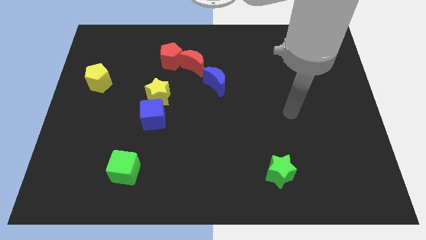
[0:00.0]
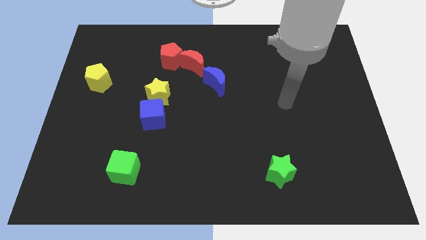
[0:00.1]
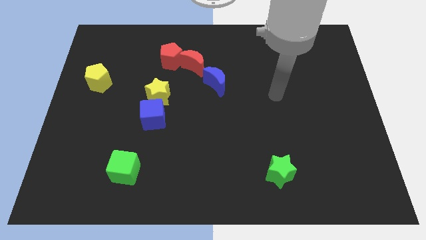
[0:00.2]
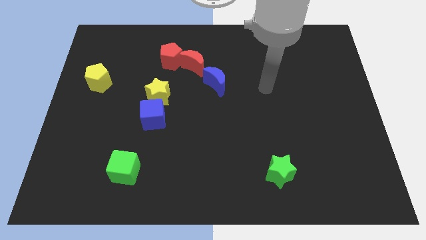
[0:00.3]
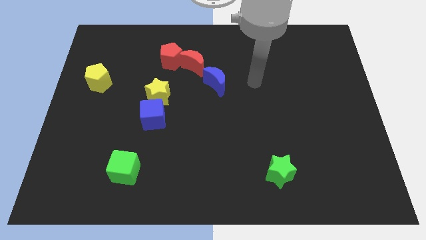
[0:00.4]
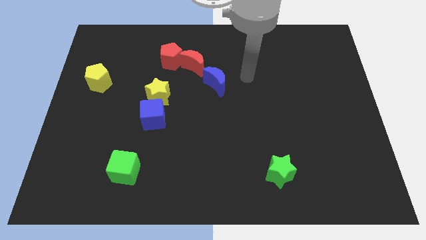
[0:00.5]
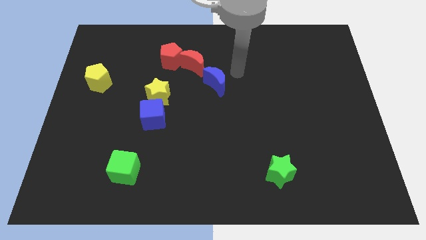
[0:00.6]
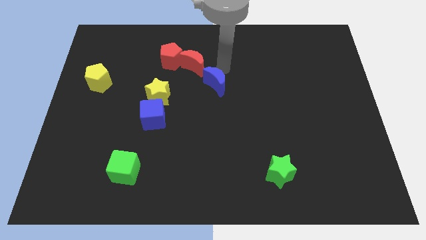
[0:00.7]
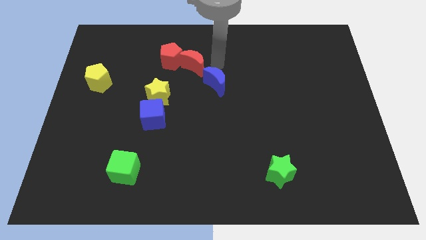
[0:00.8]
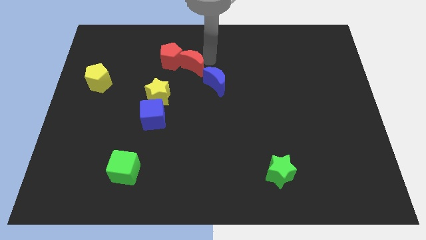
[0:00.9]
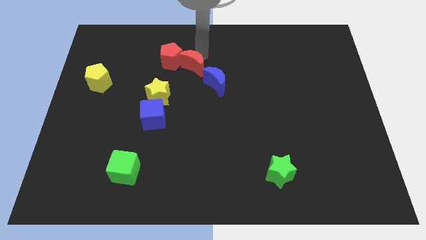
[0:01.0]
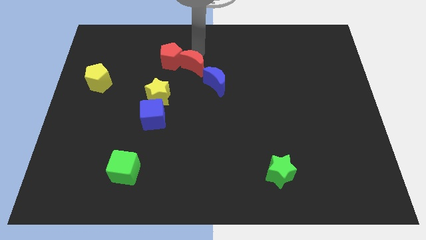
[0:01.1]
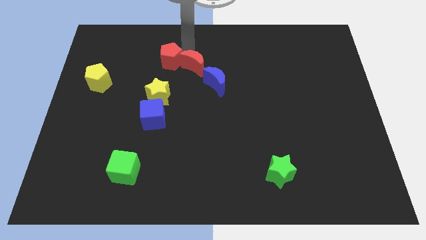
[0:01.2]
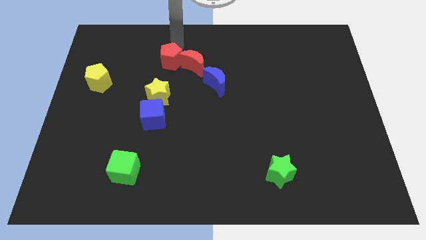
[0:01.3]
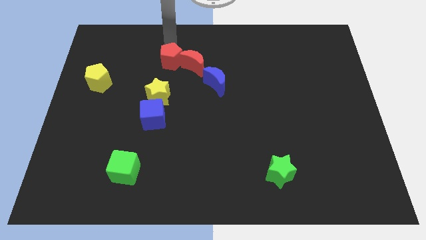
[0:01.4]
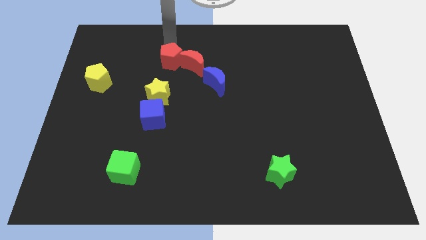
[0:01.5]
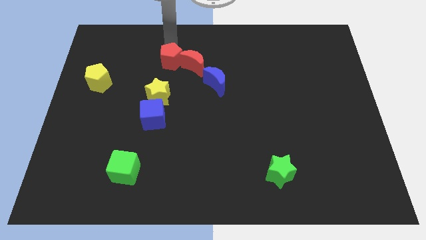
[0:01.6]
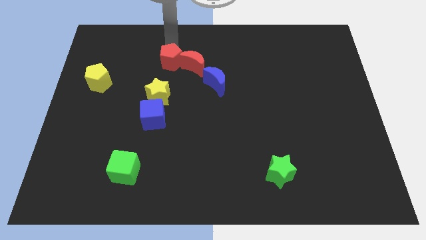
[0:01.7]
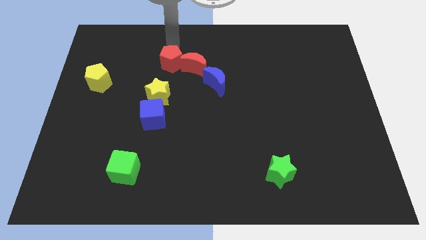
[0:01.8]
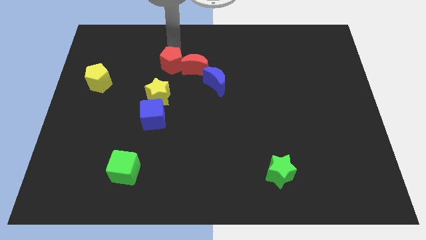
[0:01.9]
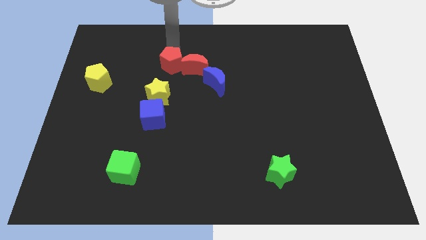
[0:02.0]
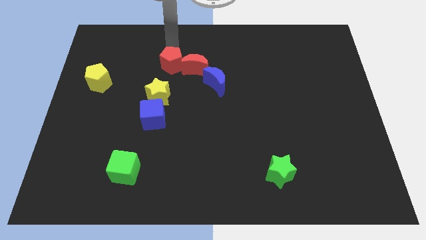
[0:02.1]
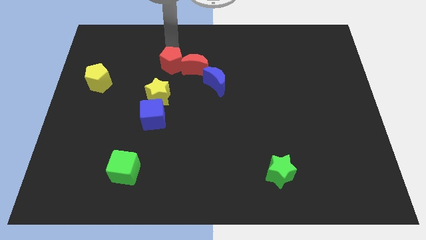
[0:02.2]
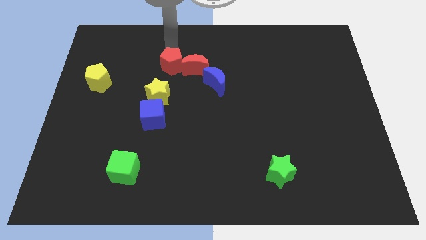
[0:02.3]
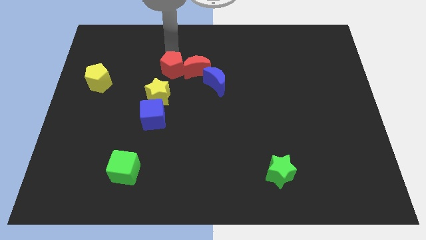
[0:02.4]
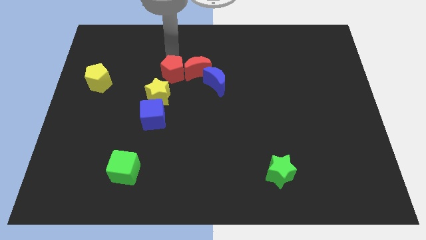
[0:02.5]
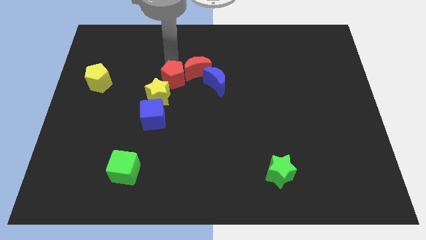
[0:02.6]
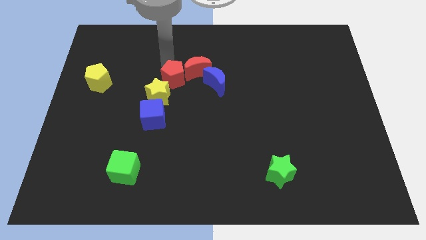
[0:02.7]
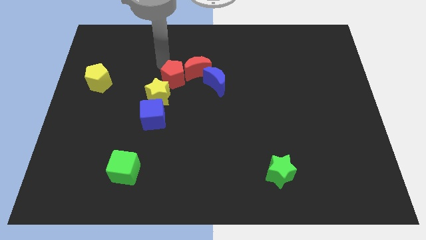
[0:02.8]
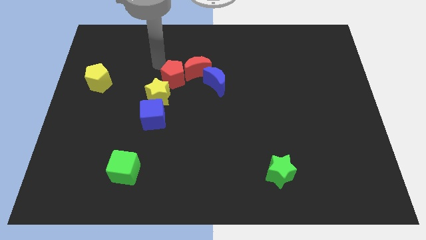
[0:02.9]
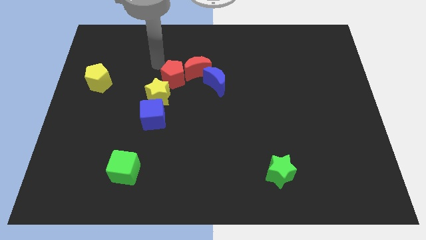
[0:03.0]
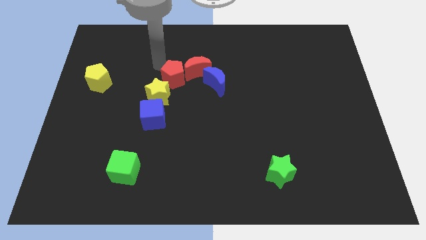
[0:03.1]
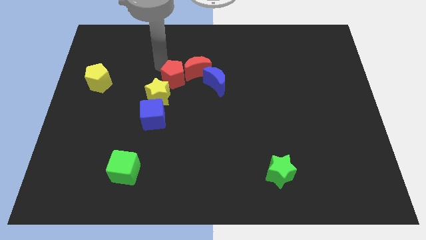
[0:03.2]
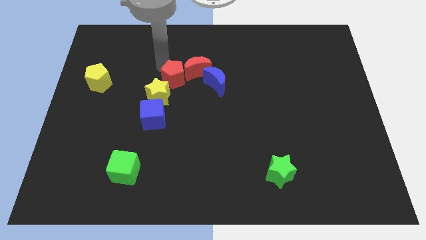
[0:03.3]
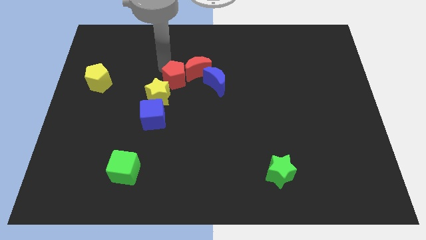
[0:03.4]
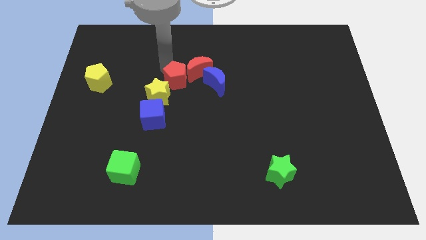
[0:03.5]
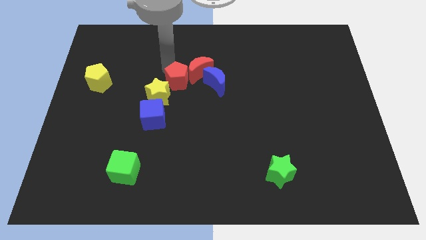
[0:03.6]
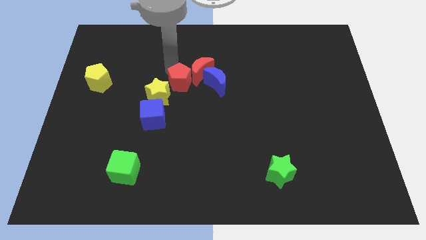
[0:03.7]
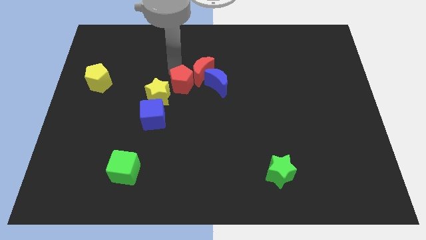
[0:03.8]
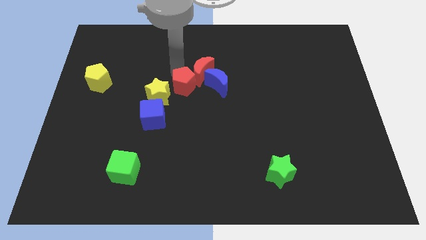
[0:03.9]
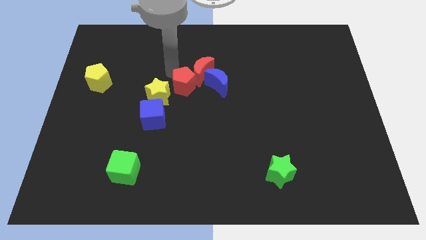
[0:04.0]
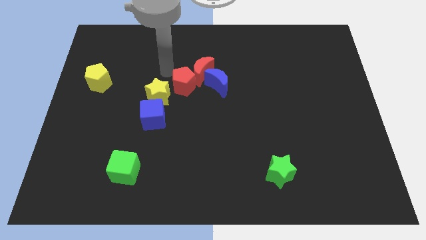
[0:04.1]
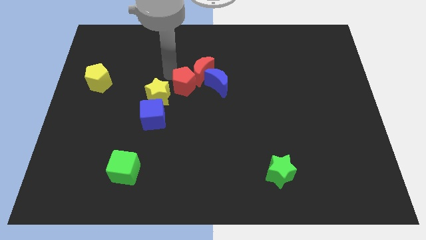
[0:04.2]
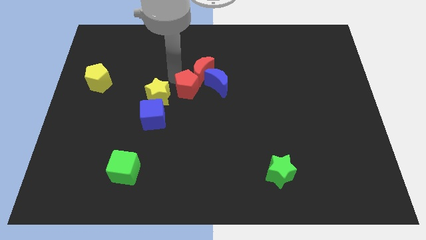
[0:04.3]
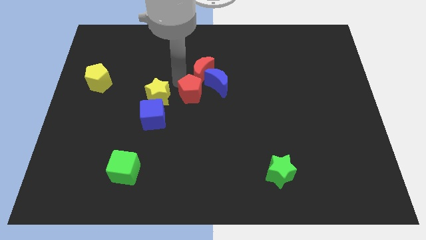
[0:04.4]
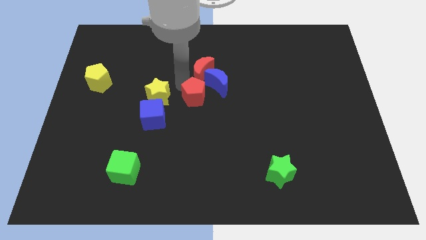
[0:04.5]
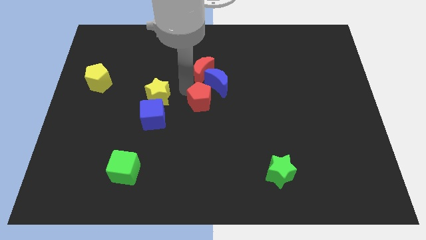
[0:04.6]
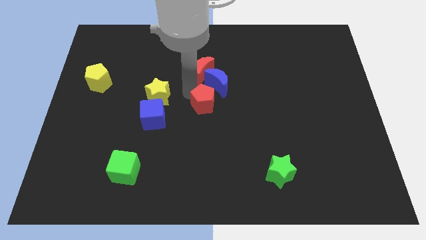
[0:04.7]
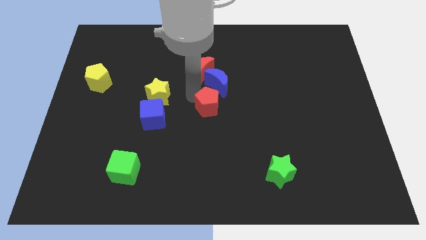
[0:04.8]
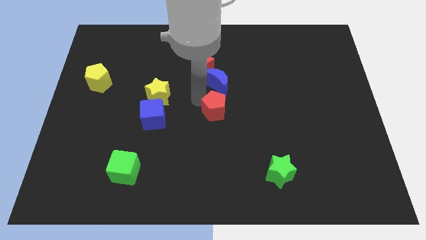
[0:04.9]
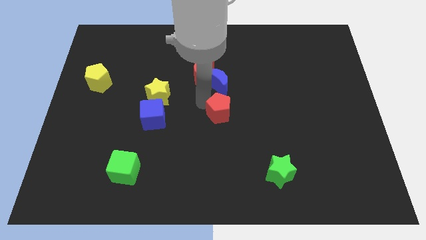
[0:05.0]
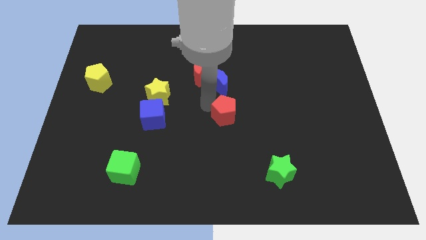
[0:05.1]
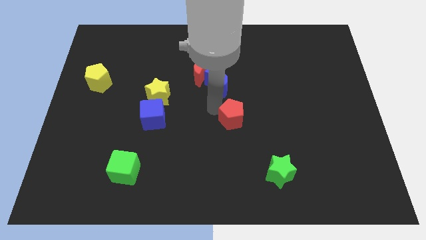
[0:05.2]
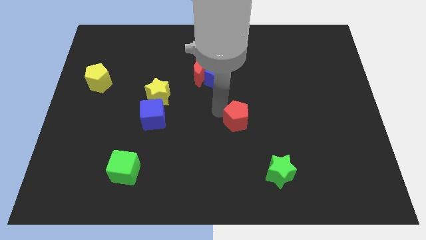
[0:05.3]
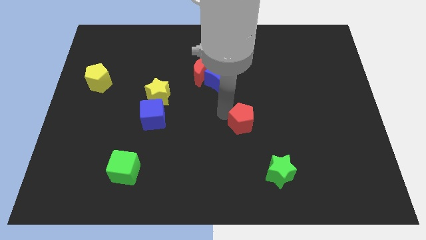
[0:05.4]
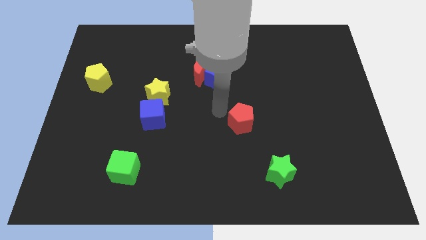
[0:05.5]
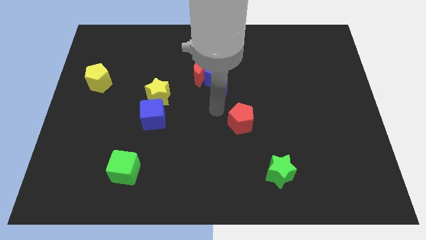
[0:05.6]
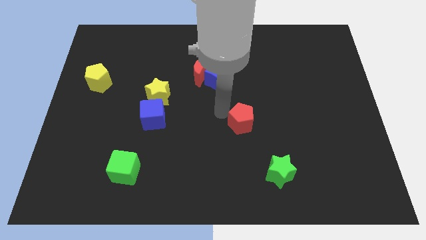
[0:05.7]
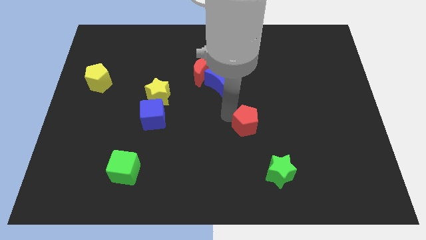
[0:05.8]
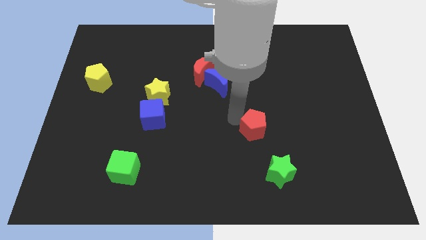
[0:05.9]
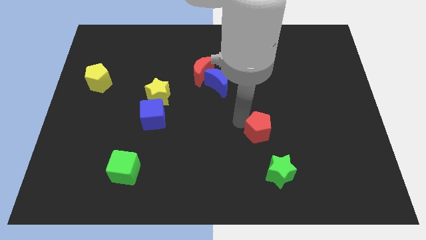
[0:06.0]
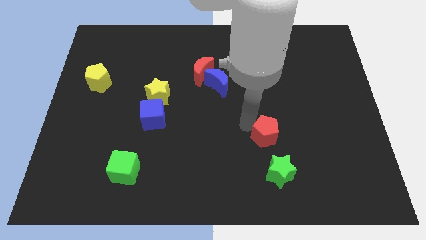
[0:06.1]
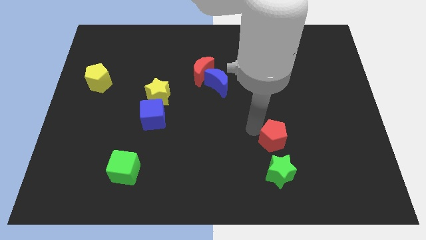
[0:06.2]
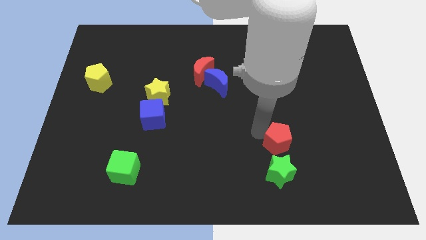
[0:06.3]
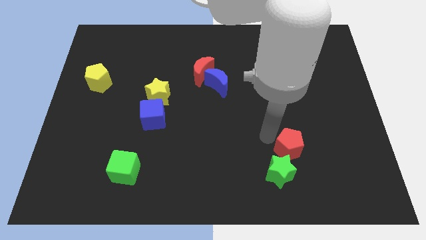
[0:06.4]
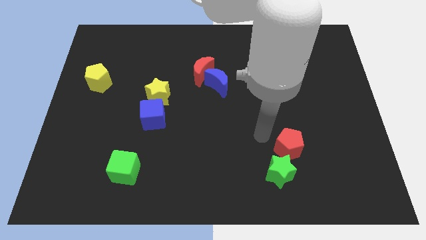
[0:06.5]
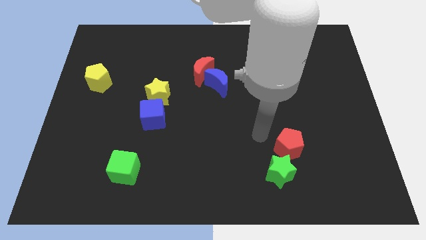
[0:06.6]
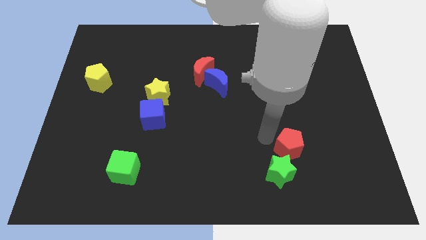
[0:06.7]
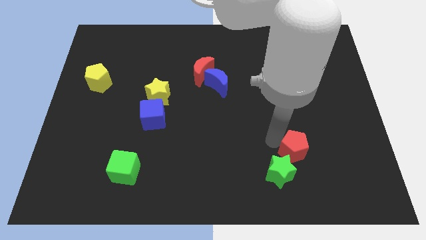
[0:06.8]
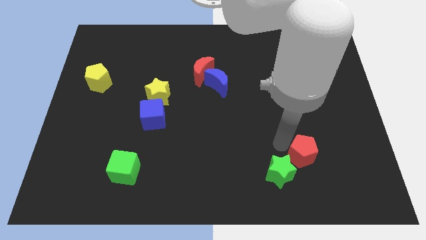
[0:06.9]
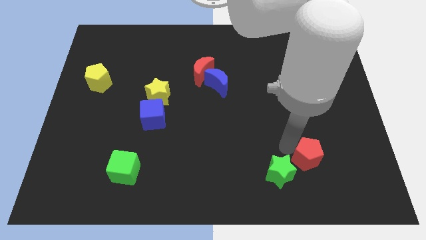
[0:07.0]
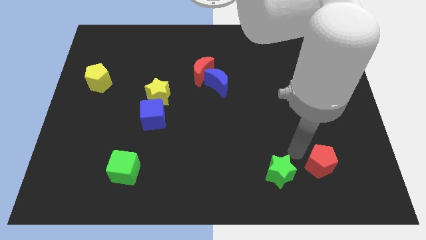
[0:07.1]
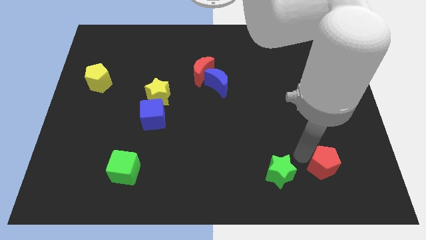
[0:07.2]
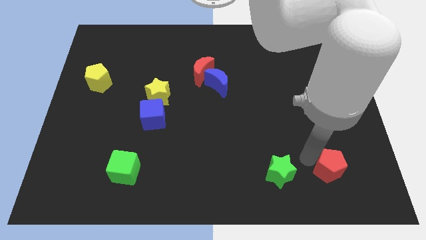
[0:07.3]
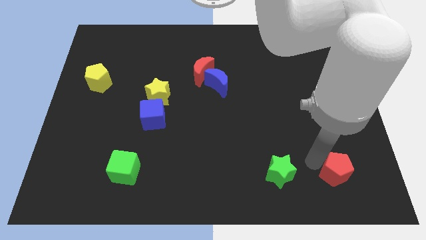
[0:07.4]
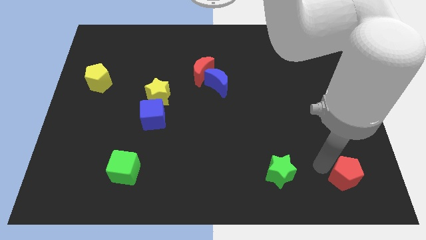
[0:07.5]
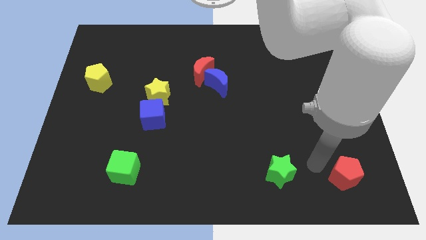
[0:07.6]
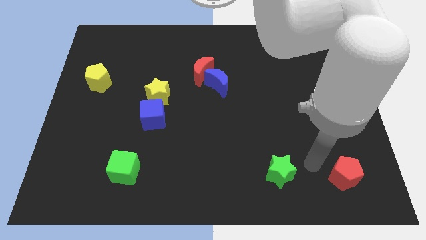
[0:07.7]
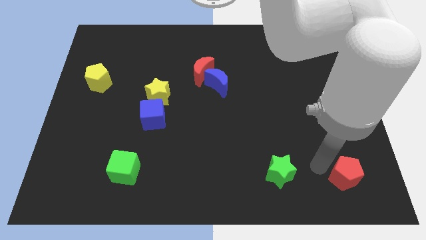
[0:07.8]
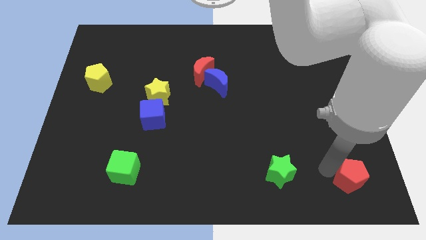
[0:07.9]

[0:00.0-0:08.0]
put the red pentagon to the bottom right of the board
